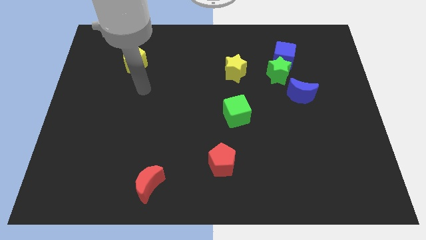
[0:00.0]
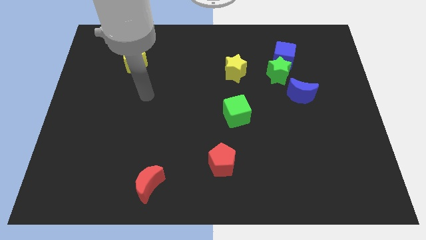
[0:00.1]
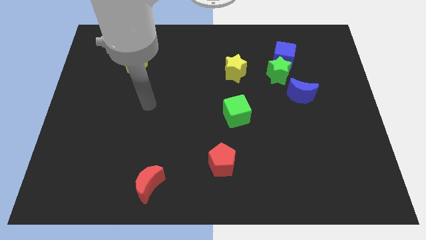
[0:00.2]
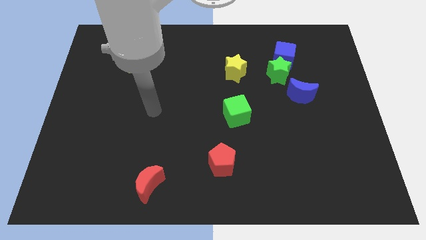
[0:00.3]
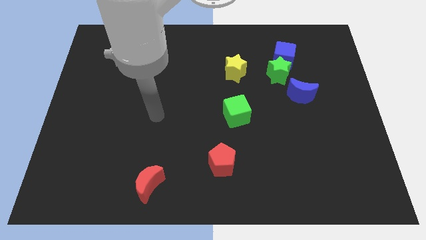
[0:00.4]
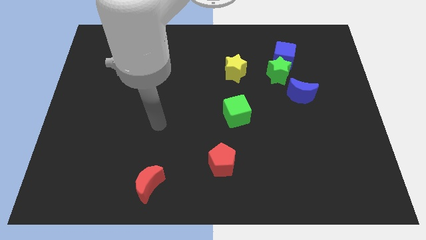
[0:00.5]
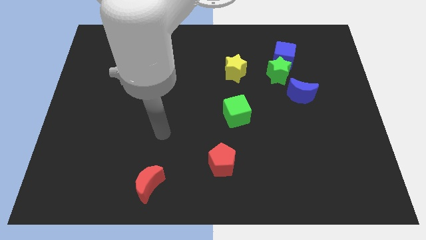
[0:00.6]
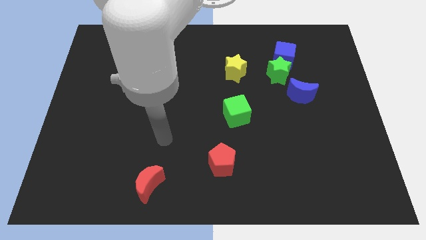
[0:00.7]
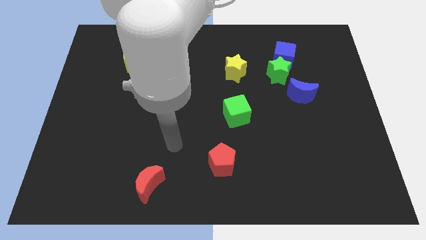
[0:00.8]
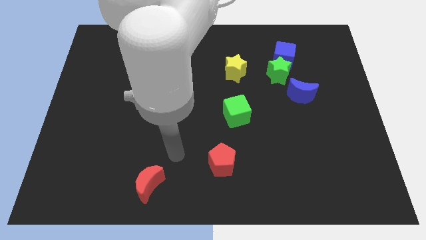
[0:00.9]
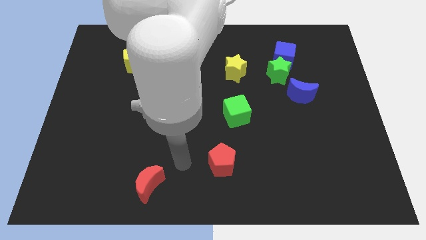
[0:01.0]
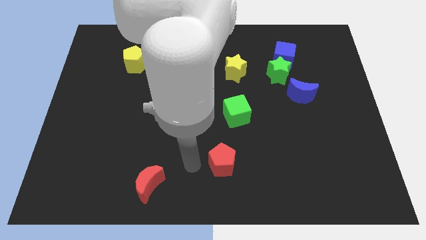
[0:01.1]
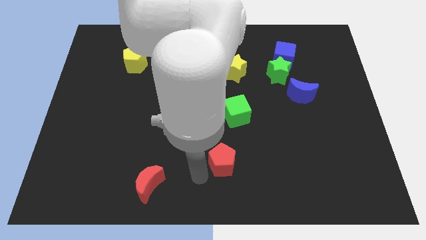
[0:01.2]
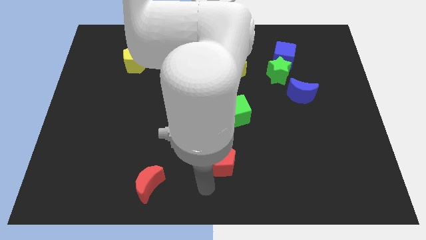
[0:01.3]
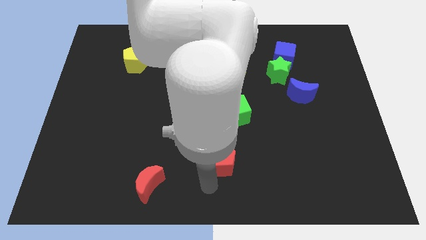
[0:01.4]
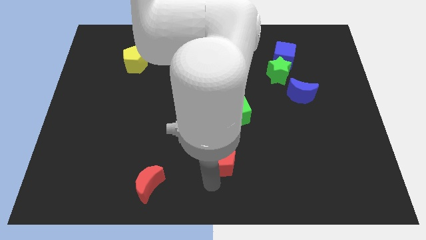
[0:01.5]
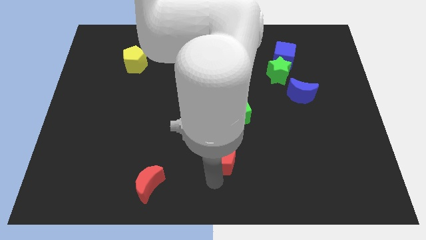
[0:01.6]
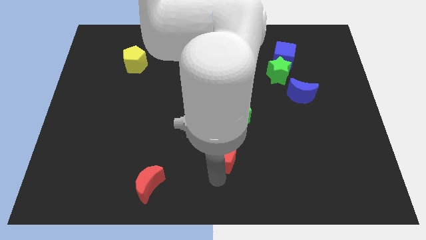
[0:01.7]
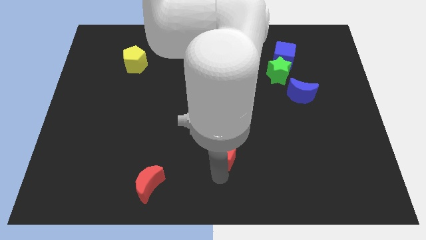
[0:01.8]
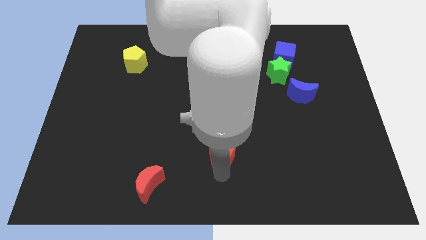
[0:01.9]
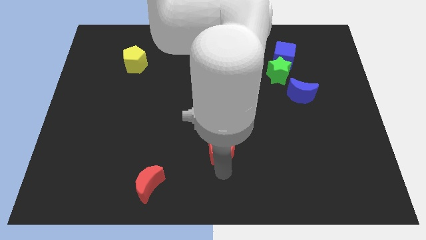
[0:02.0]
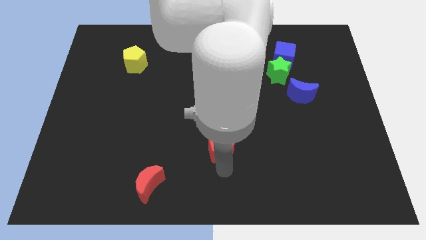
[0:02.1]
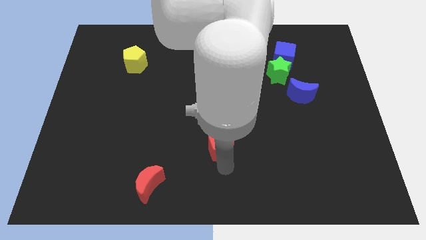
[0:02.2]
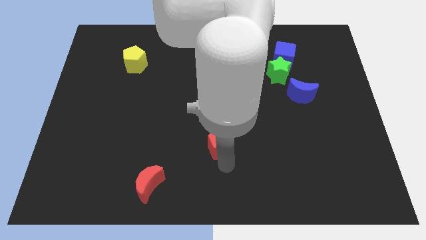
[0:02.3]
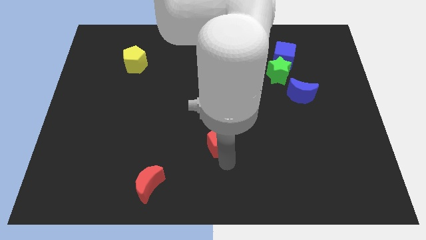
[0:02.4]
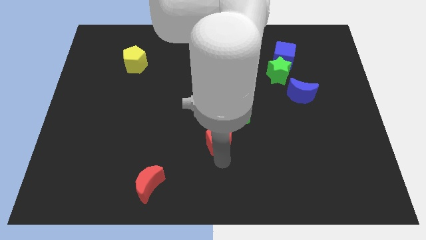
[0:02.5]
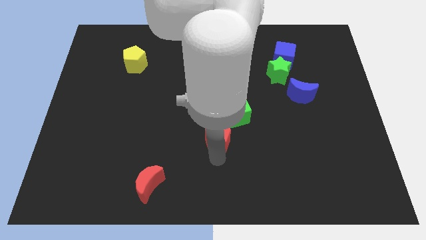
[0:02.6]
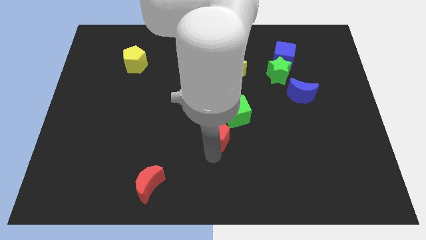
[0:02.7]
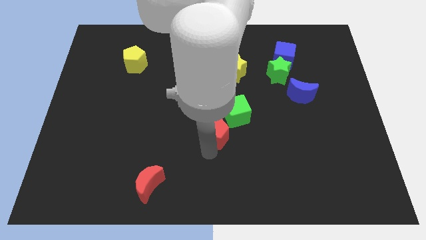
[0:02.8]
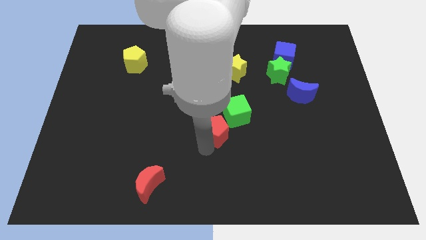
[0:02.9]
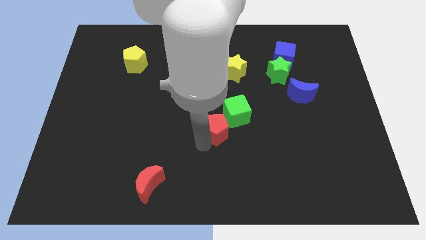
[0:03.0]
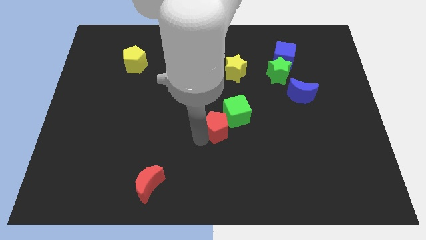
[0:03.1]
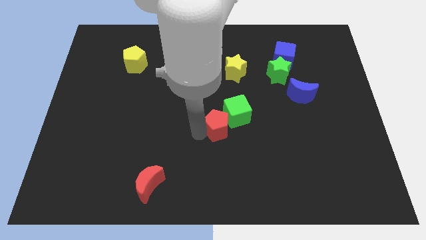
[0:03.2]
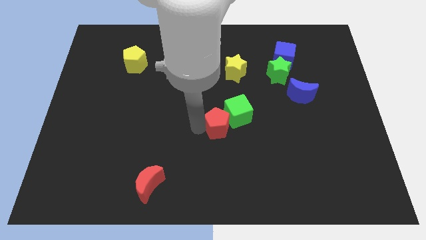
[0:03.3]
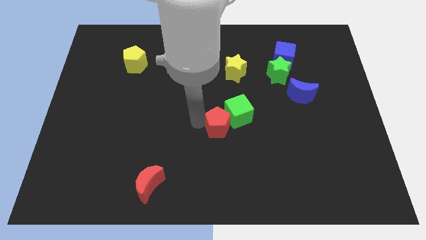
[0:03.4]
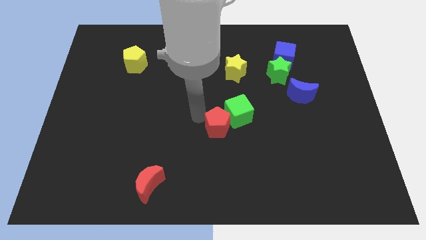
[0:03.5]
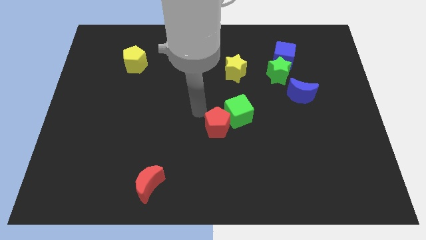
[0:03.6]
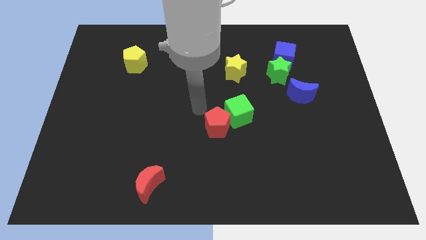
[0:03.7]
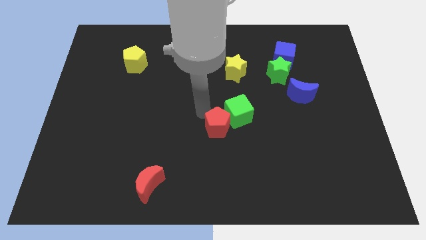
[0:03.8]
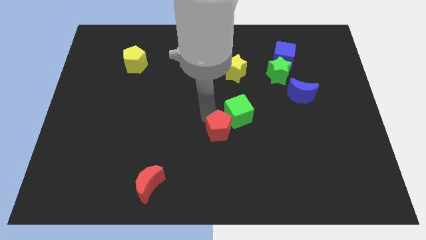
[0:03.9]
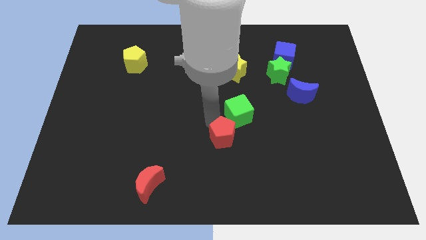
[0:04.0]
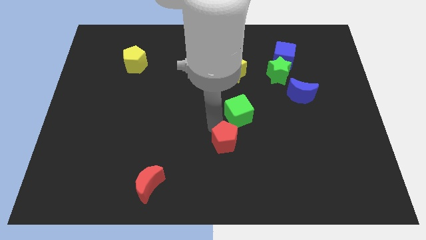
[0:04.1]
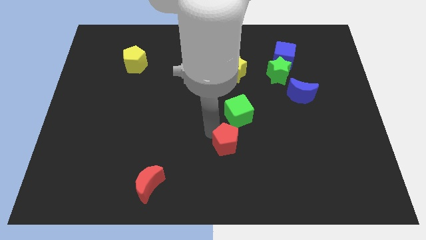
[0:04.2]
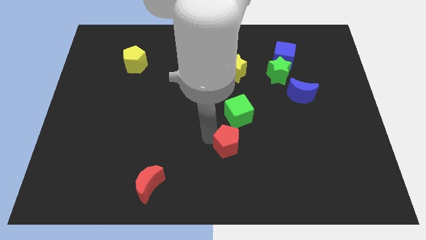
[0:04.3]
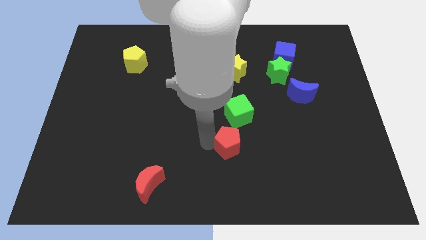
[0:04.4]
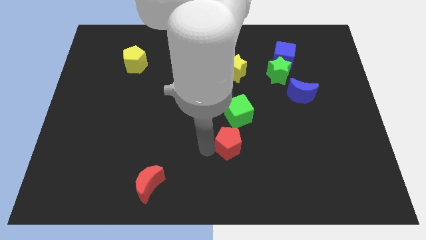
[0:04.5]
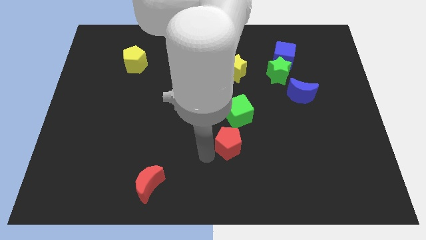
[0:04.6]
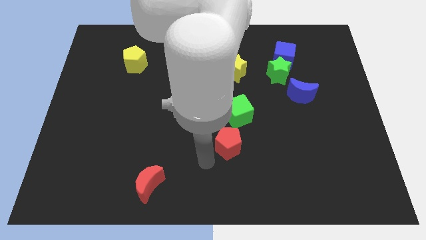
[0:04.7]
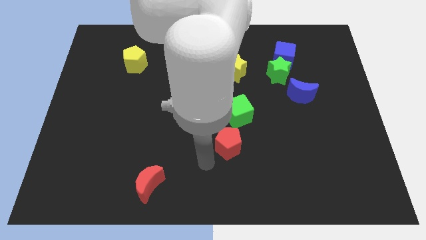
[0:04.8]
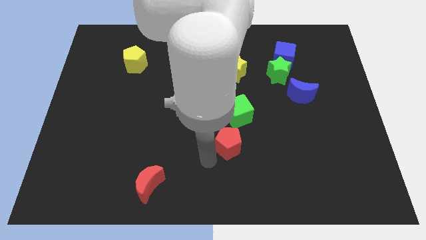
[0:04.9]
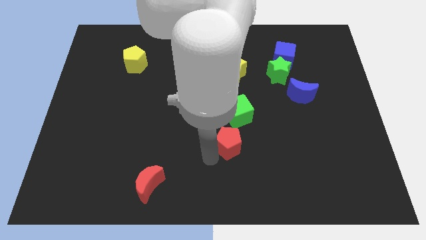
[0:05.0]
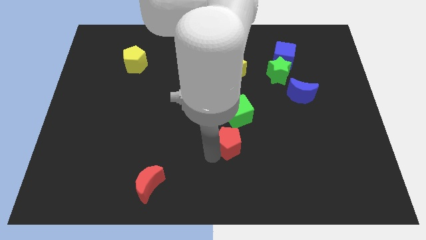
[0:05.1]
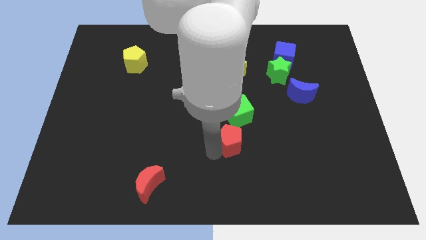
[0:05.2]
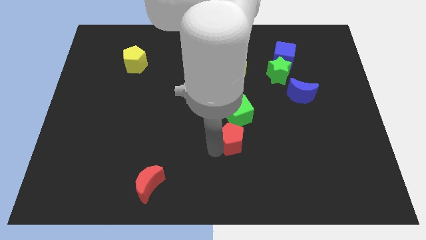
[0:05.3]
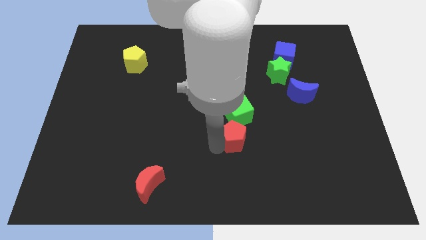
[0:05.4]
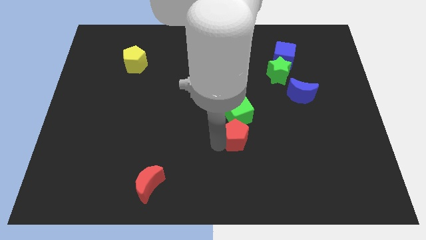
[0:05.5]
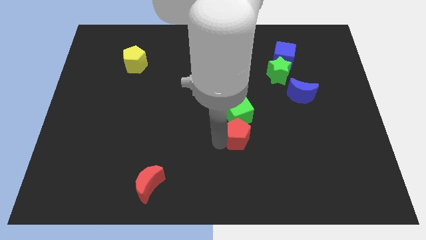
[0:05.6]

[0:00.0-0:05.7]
slightly slide the red pentagon upwards and then right

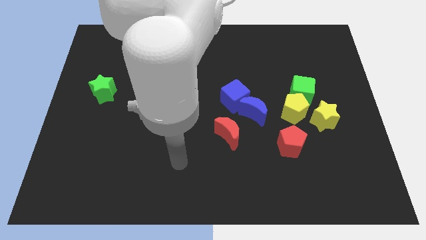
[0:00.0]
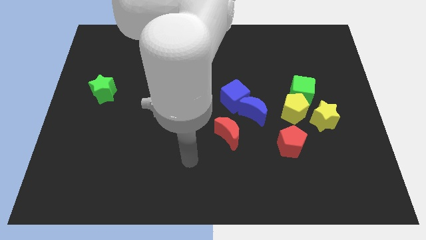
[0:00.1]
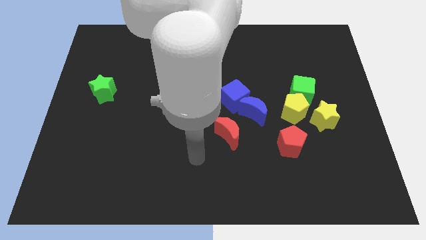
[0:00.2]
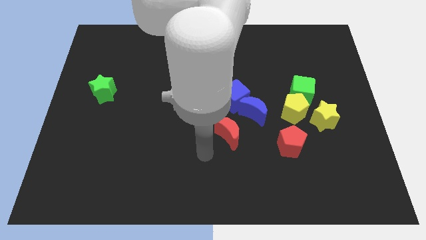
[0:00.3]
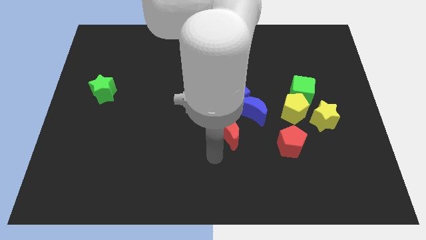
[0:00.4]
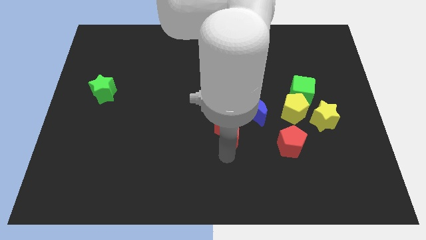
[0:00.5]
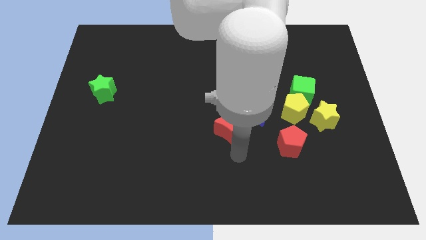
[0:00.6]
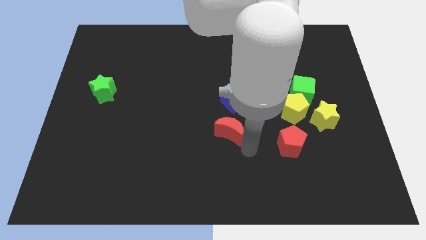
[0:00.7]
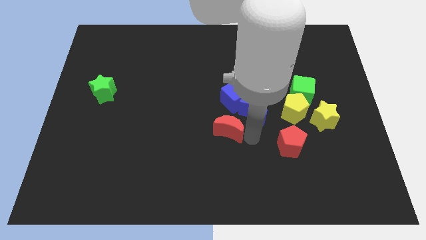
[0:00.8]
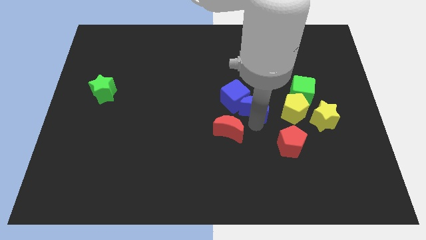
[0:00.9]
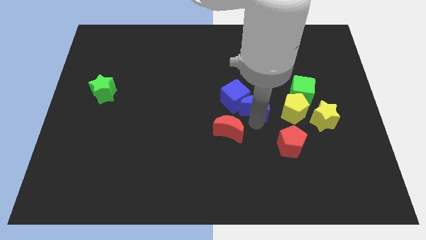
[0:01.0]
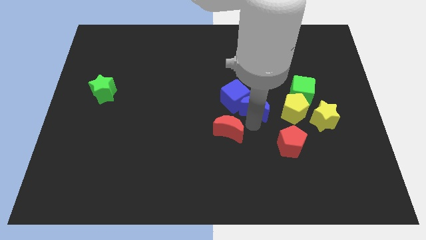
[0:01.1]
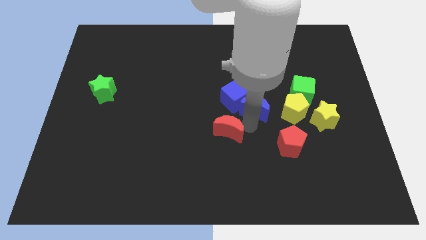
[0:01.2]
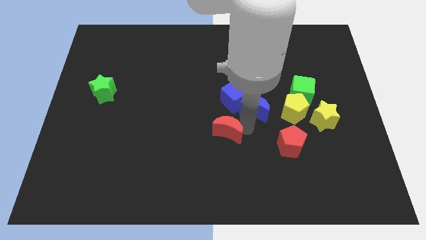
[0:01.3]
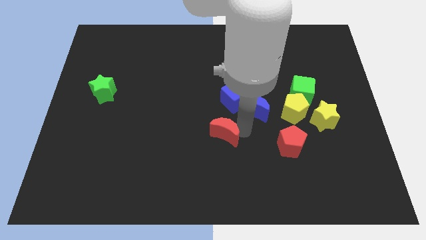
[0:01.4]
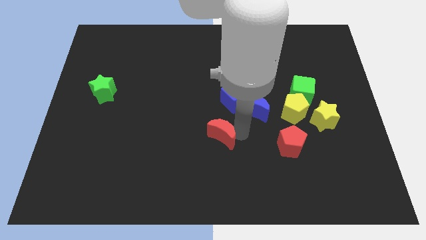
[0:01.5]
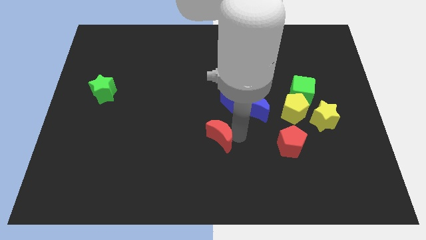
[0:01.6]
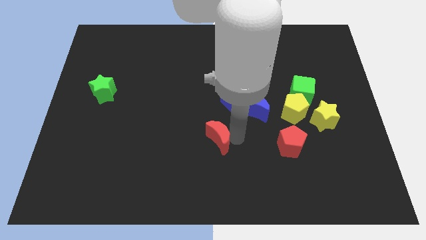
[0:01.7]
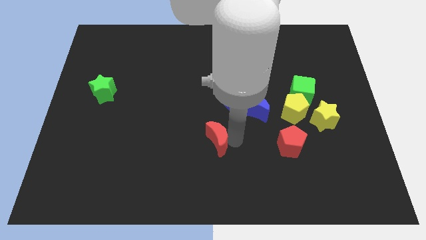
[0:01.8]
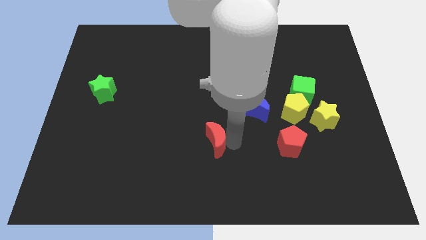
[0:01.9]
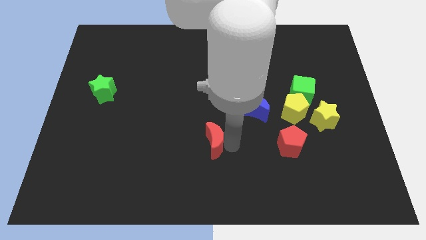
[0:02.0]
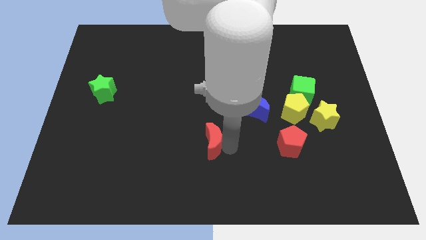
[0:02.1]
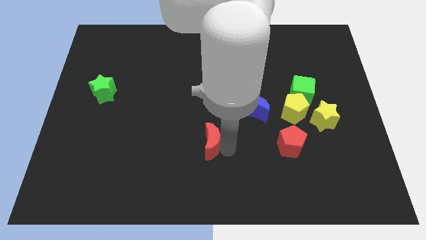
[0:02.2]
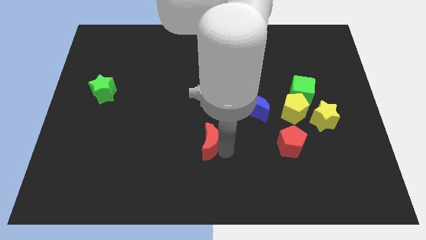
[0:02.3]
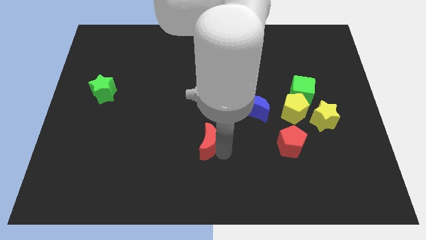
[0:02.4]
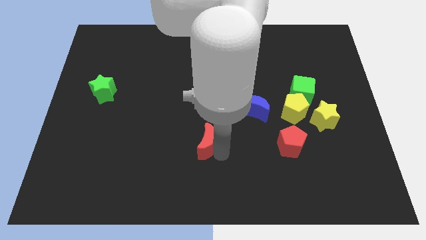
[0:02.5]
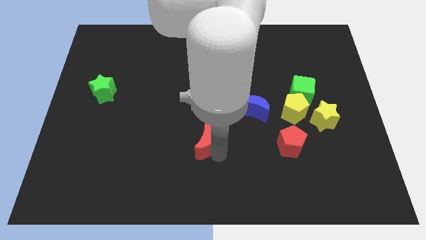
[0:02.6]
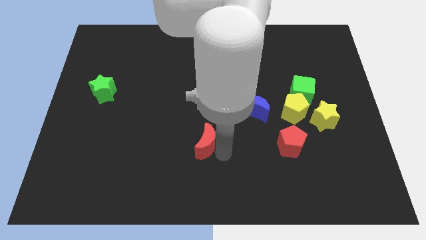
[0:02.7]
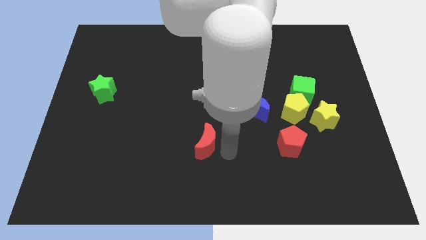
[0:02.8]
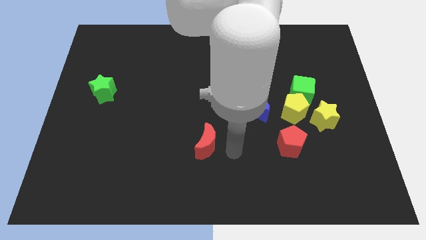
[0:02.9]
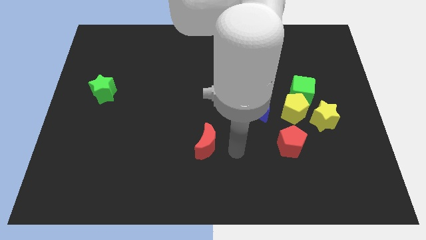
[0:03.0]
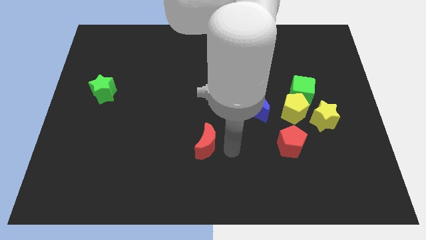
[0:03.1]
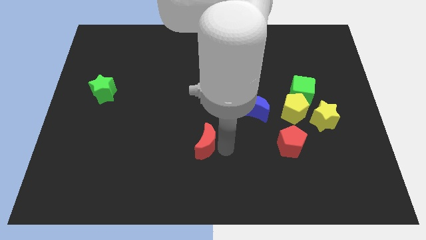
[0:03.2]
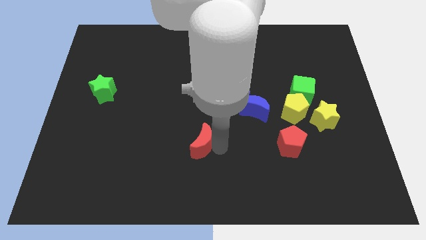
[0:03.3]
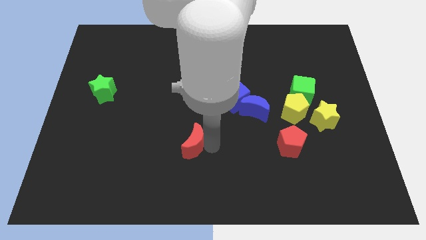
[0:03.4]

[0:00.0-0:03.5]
move the red moon somewhat left
